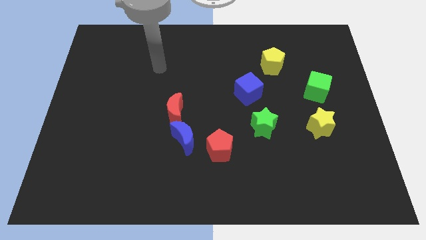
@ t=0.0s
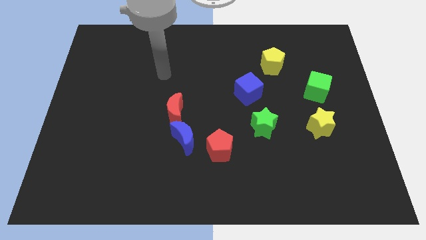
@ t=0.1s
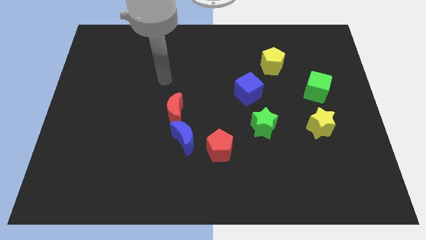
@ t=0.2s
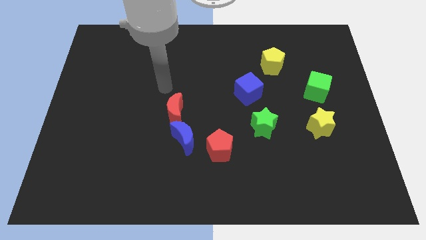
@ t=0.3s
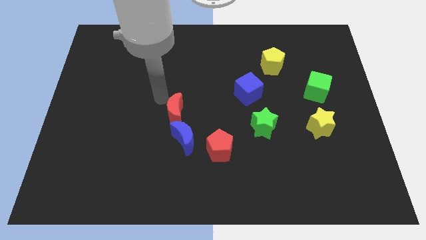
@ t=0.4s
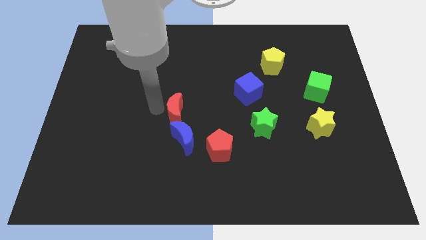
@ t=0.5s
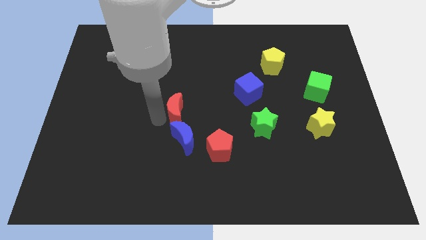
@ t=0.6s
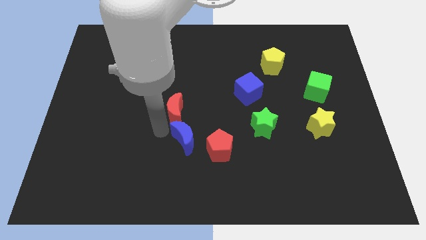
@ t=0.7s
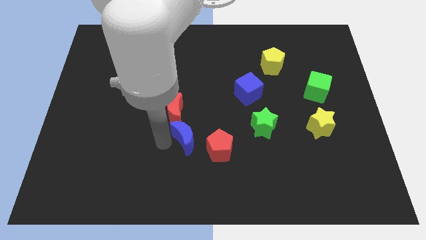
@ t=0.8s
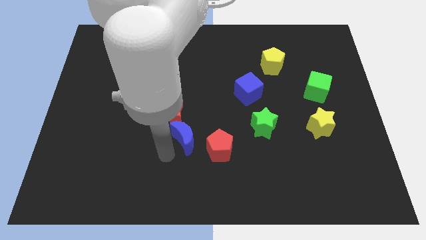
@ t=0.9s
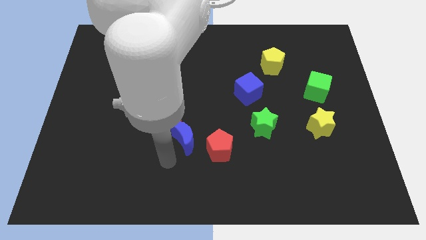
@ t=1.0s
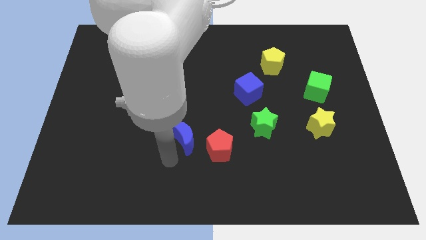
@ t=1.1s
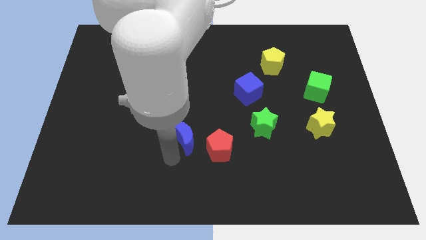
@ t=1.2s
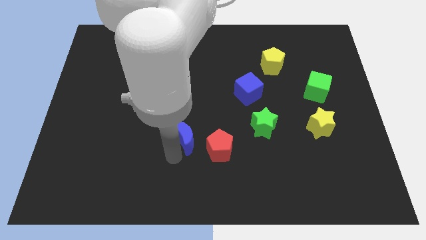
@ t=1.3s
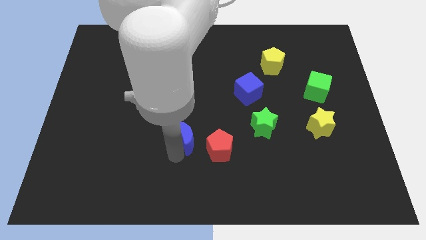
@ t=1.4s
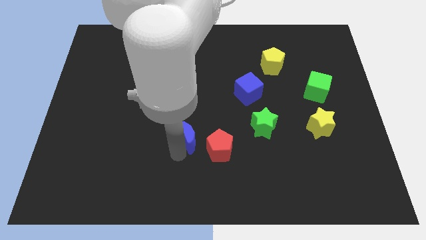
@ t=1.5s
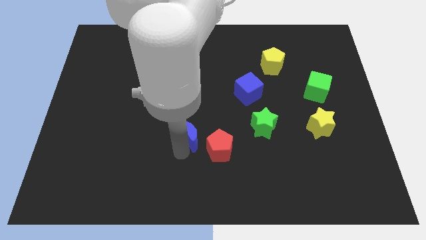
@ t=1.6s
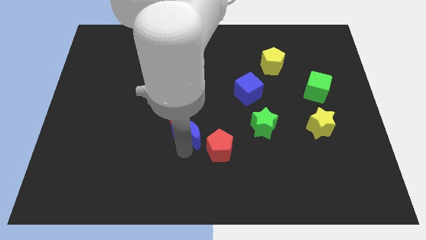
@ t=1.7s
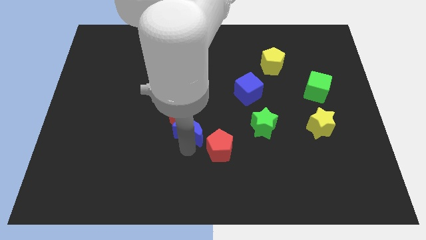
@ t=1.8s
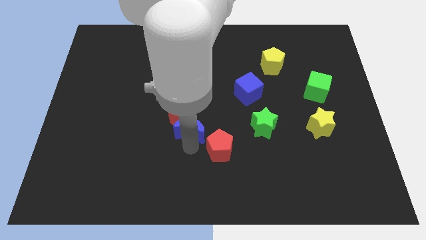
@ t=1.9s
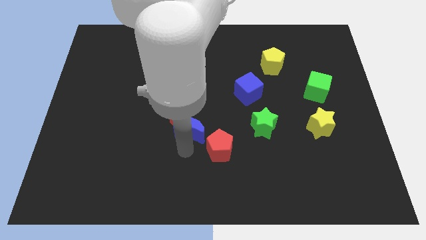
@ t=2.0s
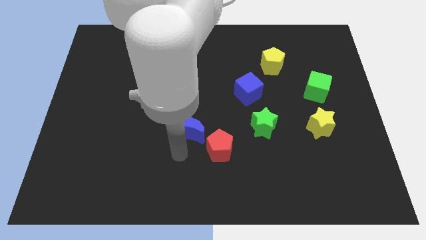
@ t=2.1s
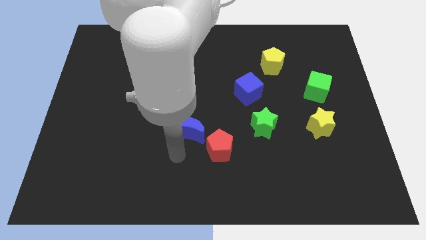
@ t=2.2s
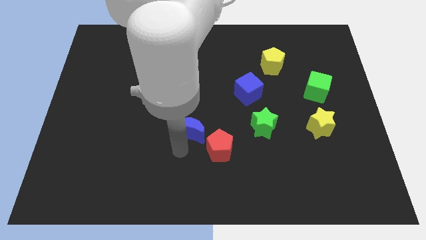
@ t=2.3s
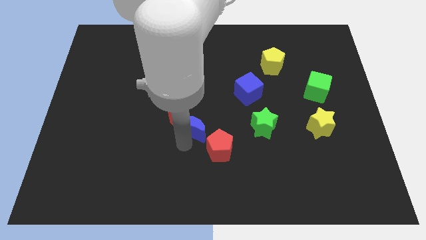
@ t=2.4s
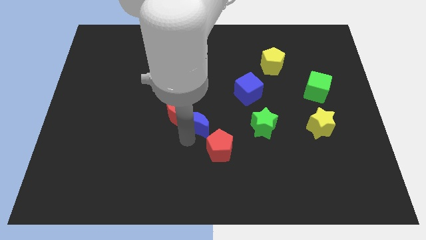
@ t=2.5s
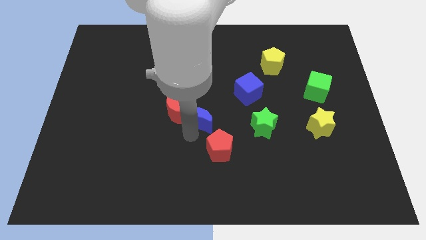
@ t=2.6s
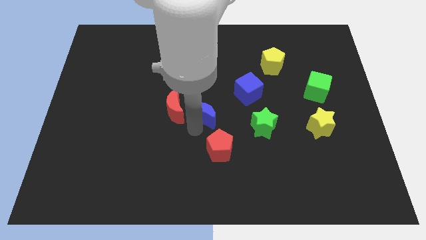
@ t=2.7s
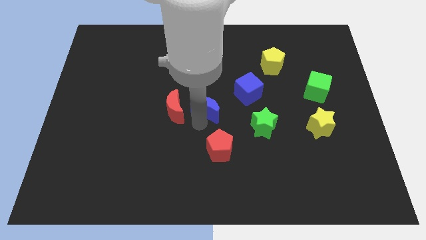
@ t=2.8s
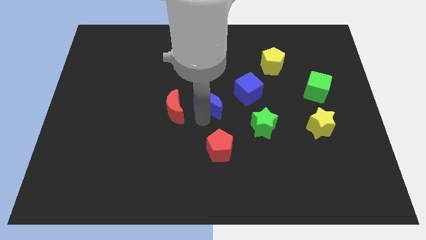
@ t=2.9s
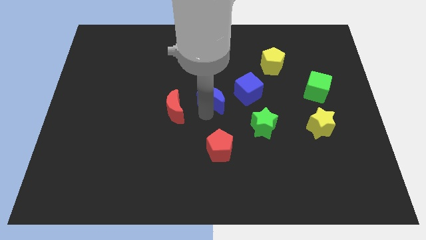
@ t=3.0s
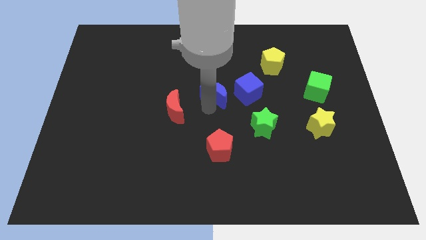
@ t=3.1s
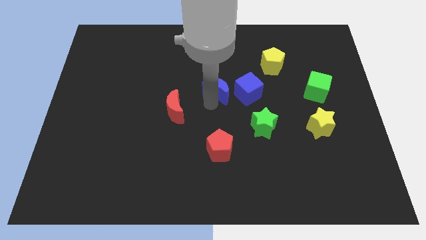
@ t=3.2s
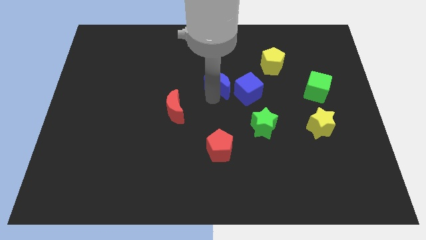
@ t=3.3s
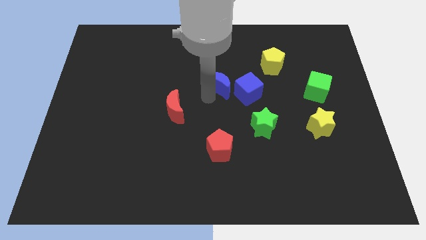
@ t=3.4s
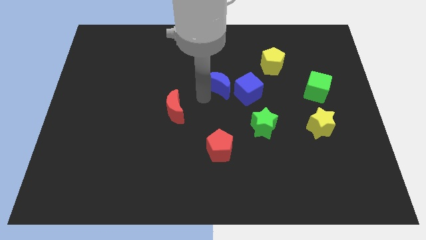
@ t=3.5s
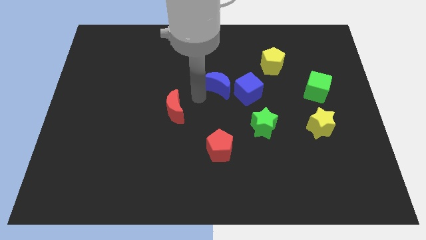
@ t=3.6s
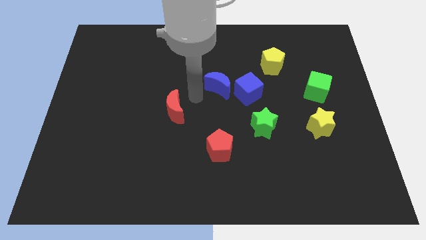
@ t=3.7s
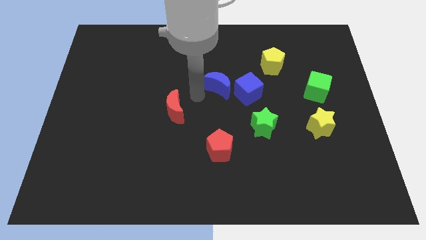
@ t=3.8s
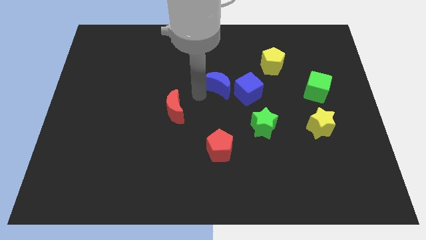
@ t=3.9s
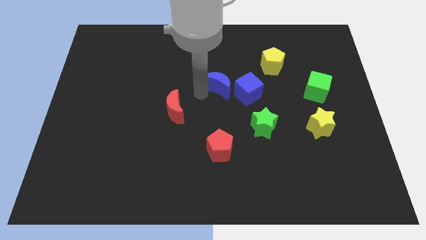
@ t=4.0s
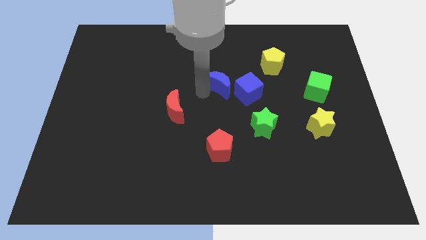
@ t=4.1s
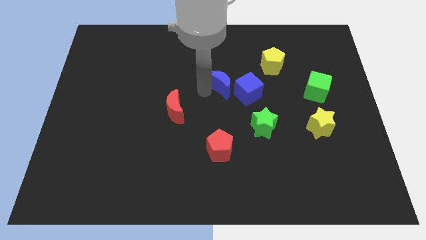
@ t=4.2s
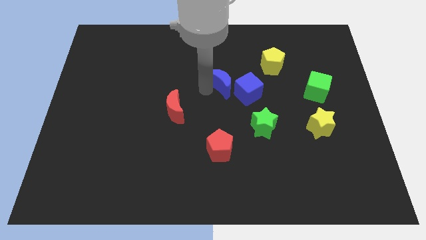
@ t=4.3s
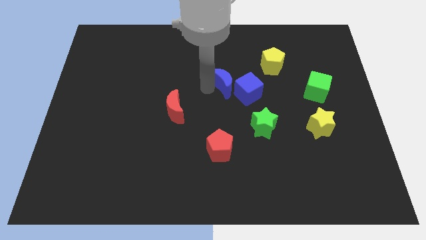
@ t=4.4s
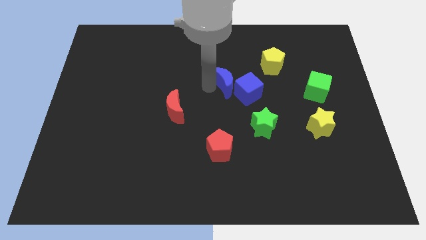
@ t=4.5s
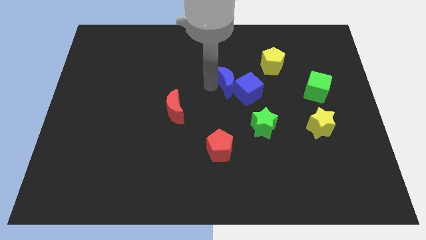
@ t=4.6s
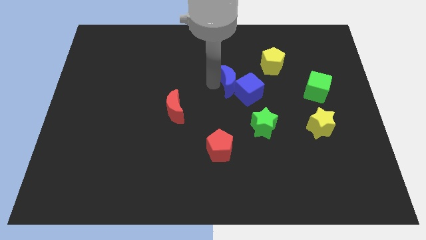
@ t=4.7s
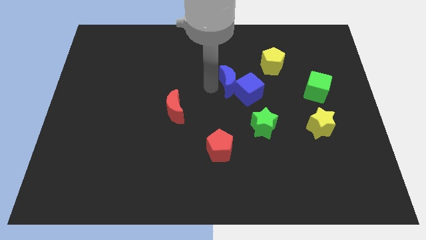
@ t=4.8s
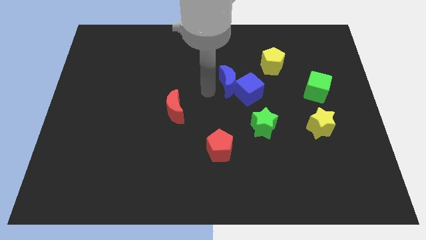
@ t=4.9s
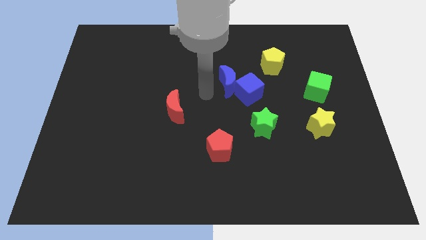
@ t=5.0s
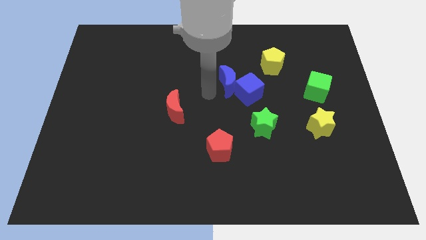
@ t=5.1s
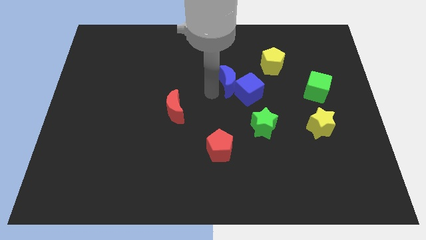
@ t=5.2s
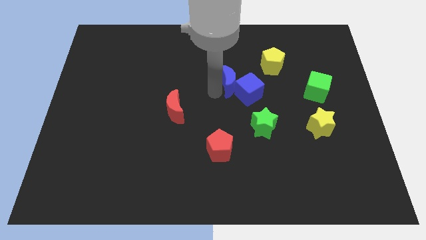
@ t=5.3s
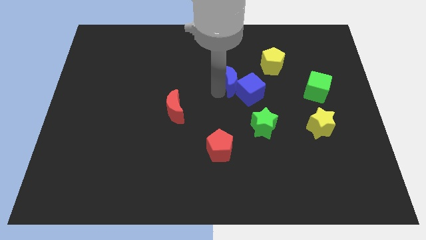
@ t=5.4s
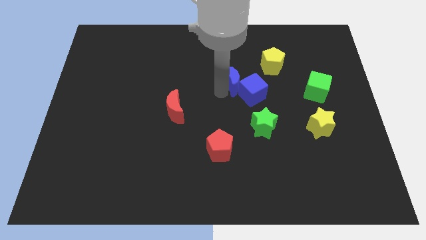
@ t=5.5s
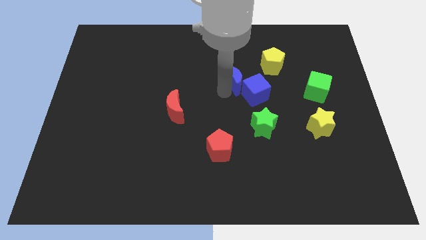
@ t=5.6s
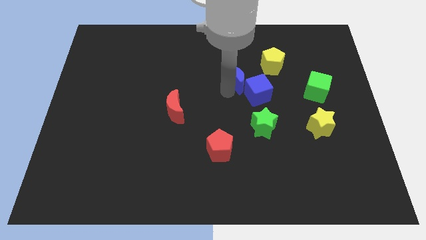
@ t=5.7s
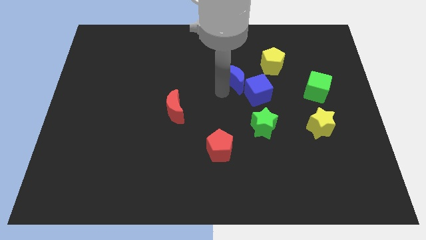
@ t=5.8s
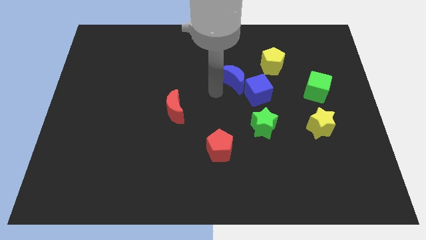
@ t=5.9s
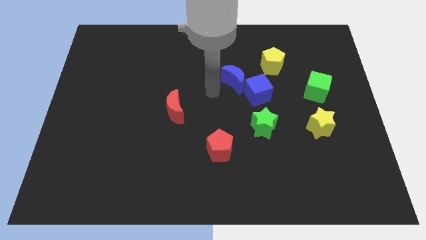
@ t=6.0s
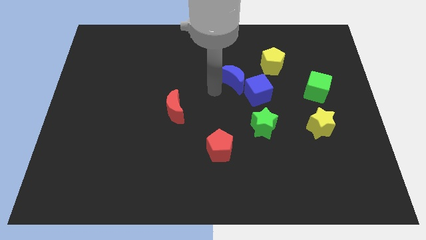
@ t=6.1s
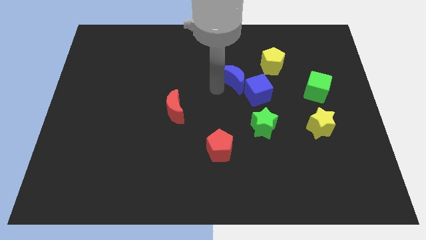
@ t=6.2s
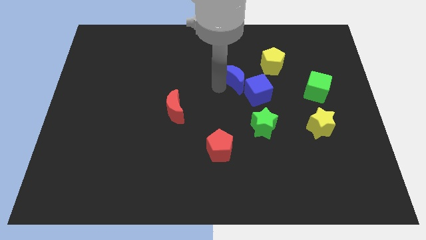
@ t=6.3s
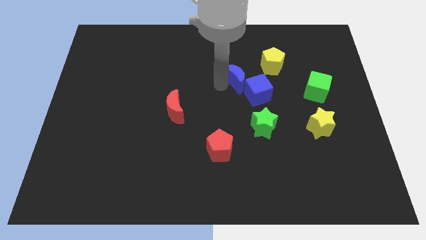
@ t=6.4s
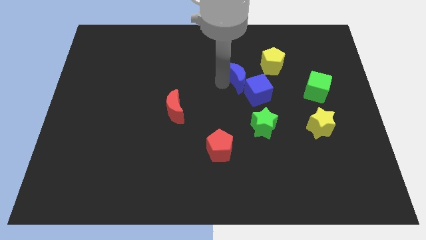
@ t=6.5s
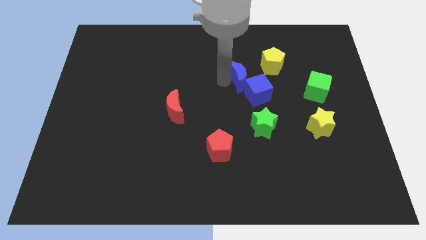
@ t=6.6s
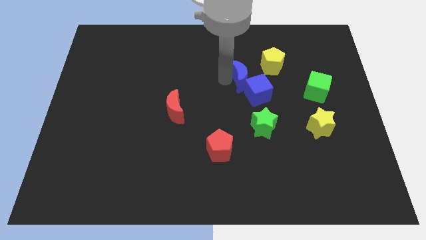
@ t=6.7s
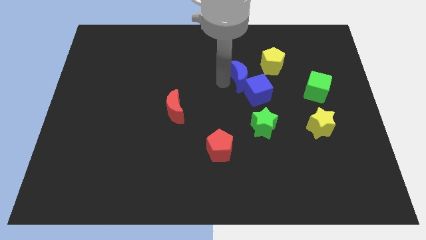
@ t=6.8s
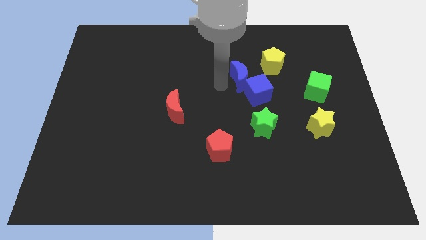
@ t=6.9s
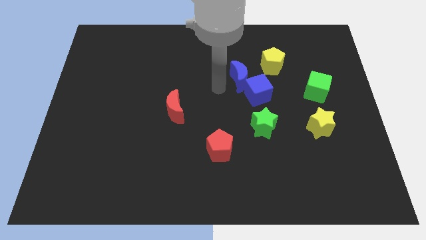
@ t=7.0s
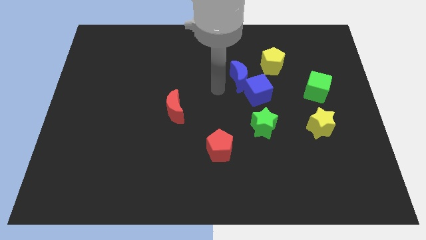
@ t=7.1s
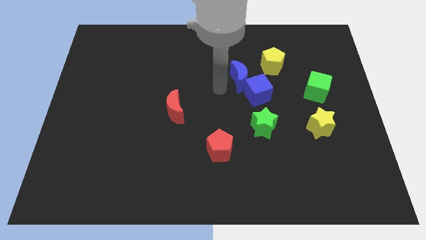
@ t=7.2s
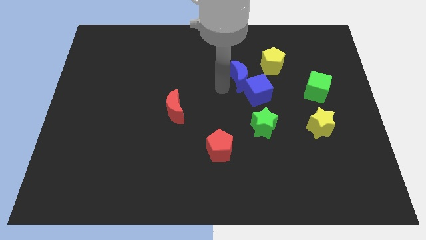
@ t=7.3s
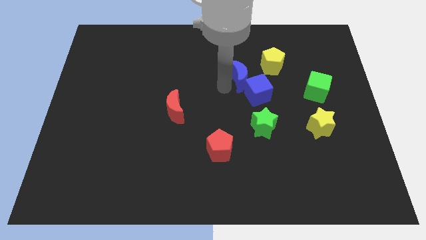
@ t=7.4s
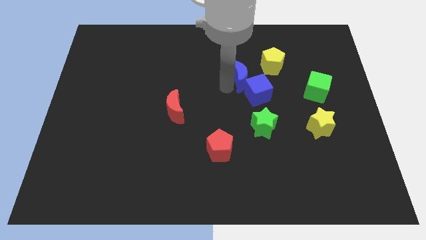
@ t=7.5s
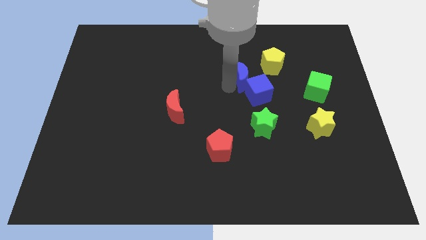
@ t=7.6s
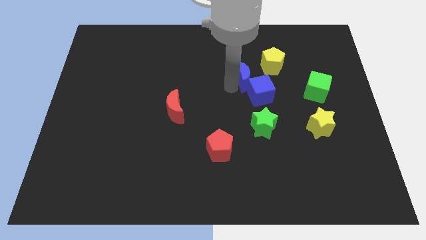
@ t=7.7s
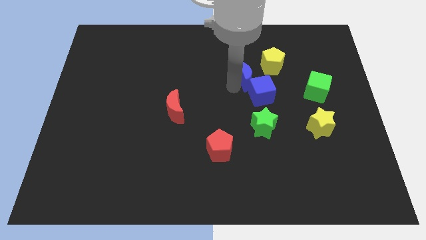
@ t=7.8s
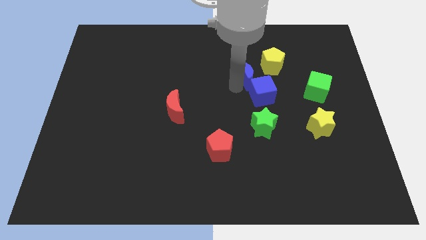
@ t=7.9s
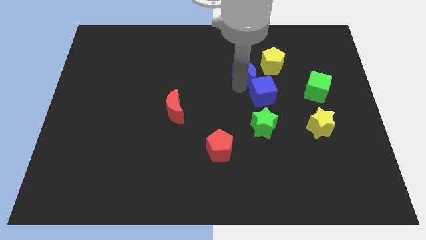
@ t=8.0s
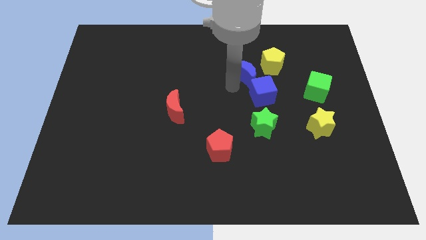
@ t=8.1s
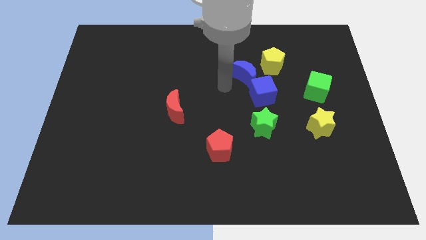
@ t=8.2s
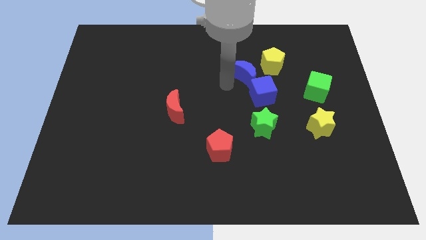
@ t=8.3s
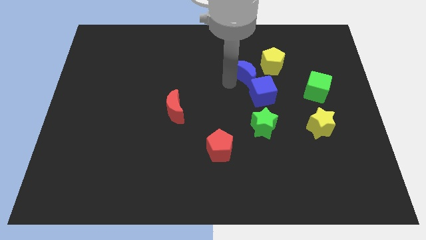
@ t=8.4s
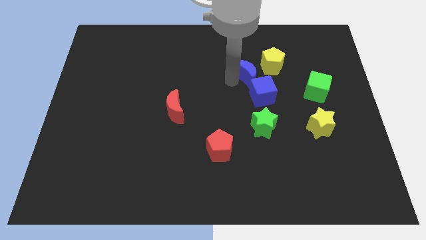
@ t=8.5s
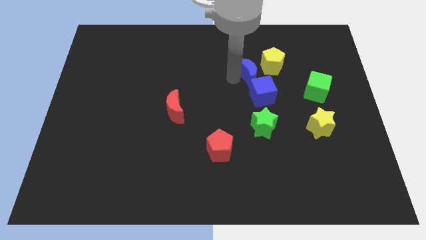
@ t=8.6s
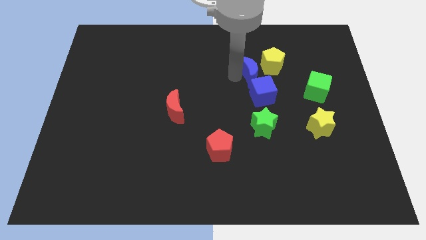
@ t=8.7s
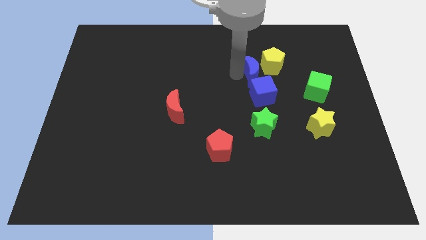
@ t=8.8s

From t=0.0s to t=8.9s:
move the blue moon towards the yellow pentagon
